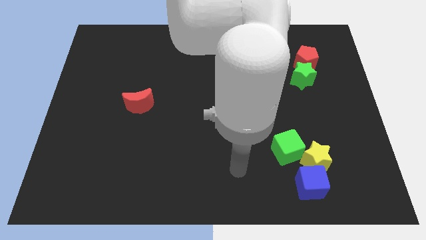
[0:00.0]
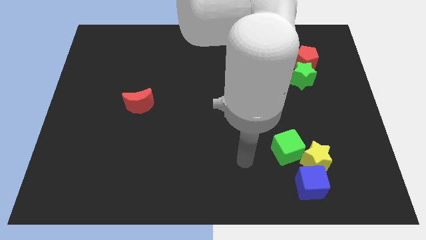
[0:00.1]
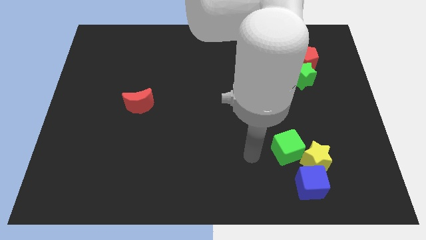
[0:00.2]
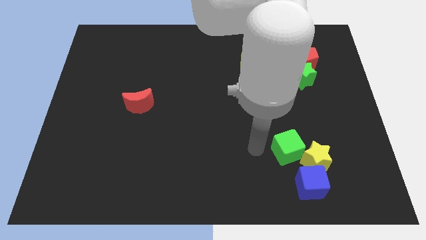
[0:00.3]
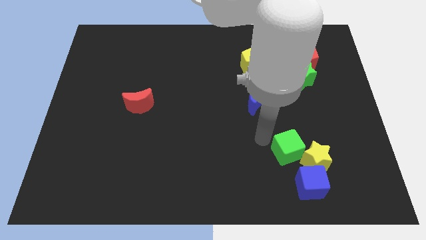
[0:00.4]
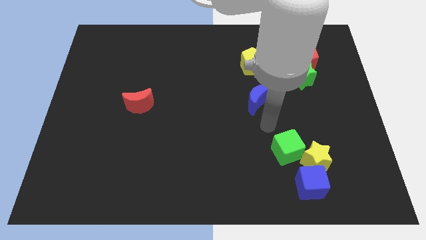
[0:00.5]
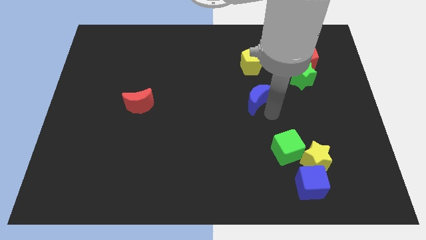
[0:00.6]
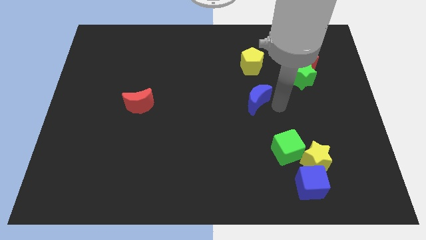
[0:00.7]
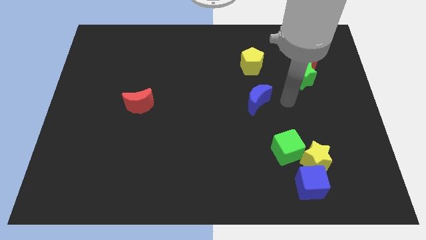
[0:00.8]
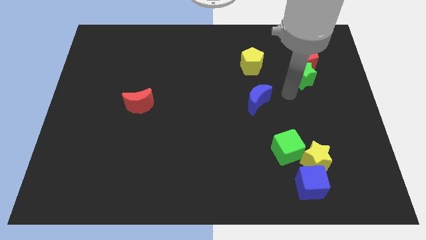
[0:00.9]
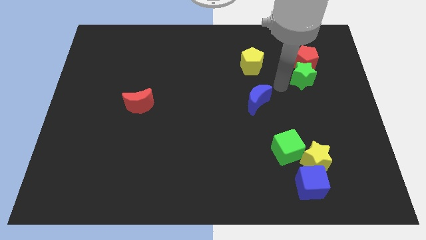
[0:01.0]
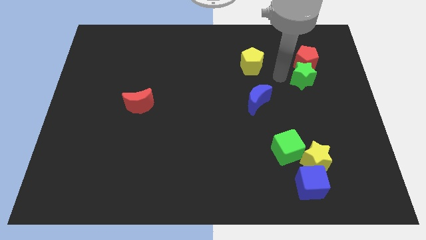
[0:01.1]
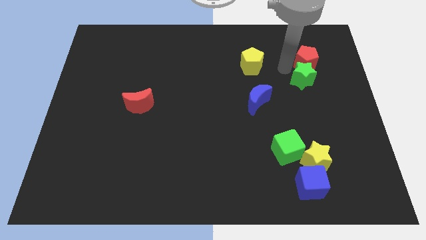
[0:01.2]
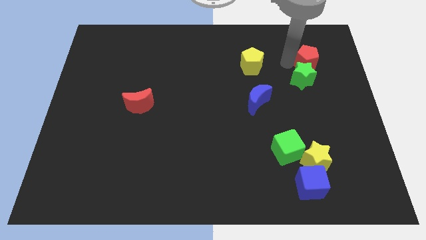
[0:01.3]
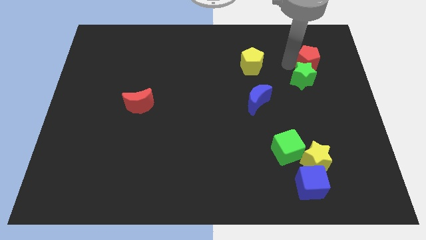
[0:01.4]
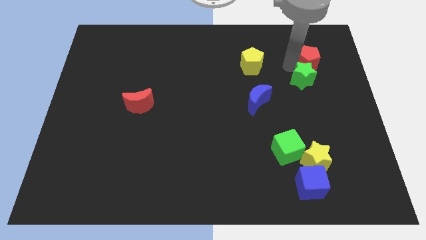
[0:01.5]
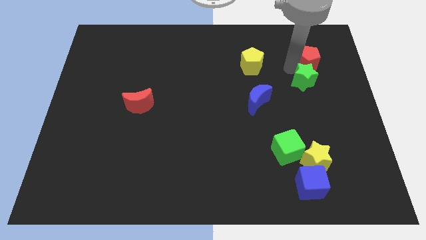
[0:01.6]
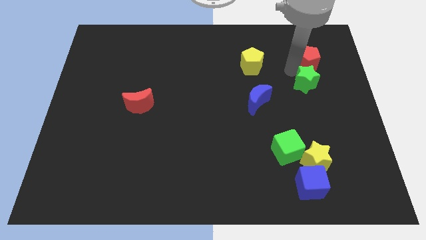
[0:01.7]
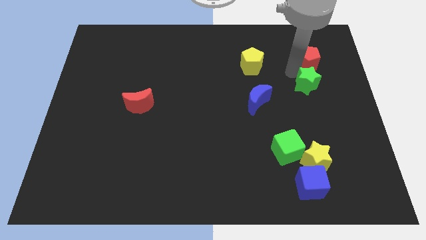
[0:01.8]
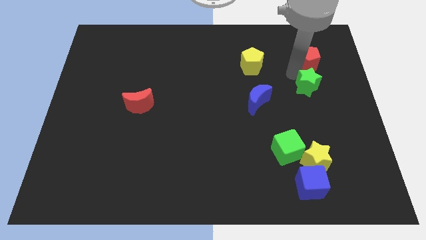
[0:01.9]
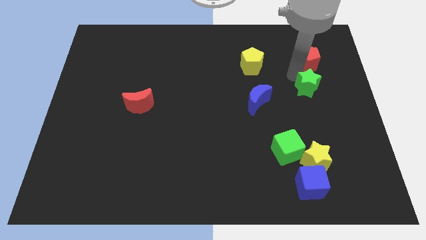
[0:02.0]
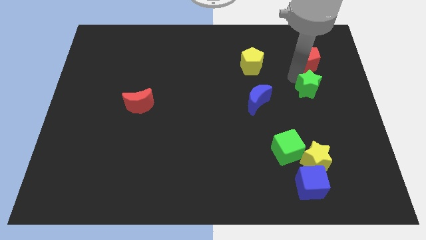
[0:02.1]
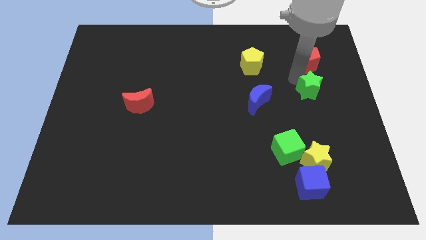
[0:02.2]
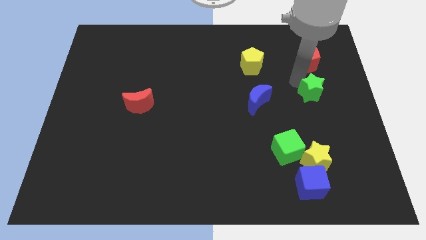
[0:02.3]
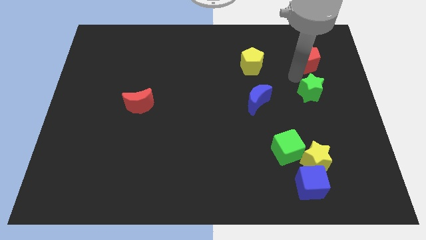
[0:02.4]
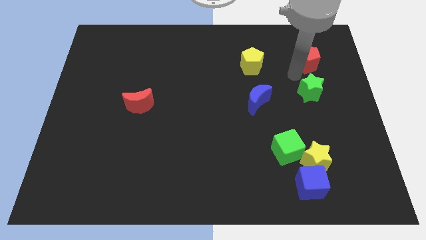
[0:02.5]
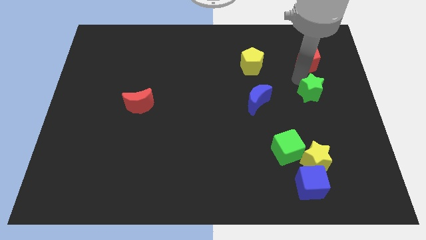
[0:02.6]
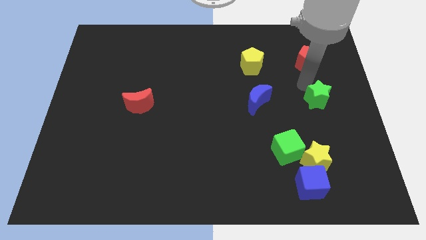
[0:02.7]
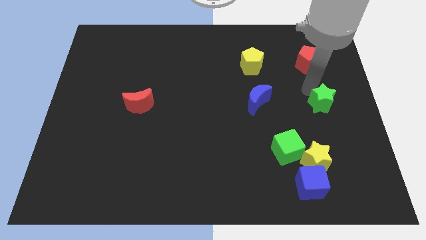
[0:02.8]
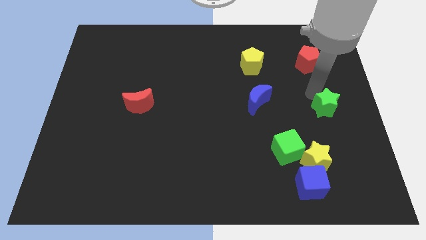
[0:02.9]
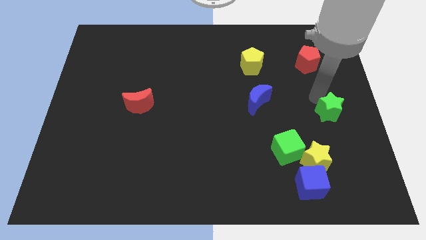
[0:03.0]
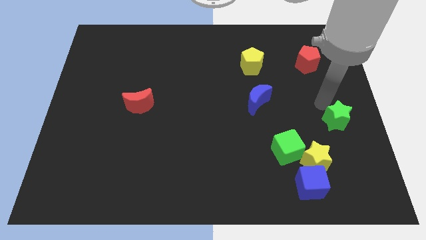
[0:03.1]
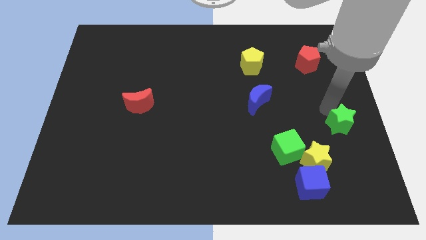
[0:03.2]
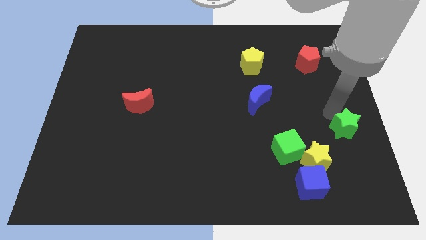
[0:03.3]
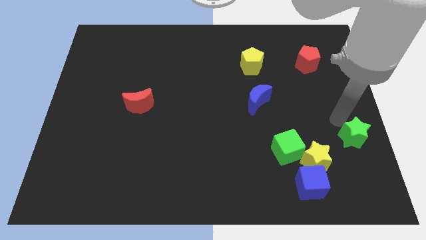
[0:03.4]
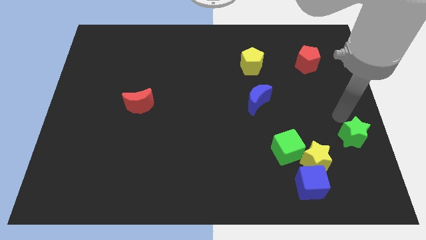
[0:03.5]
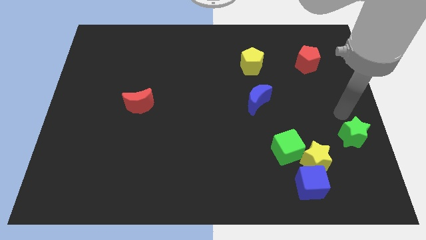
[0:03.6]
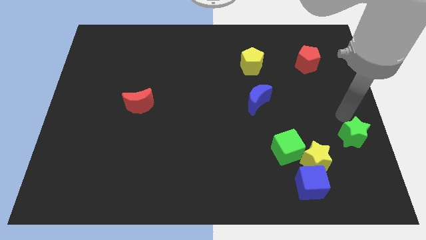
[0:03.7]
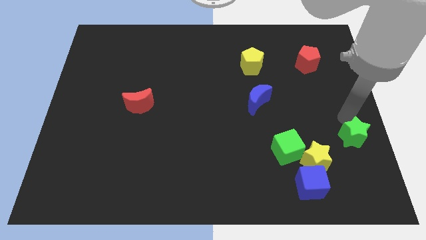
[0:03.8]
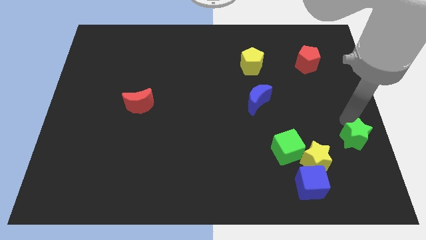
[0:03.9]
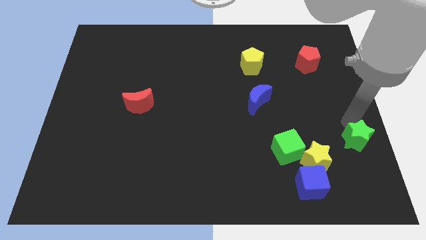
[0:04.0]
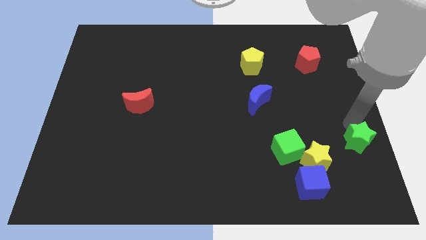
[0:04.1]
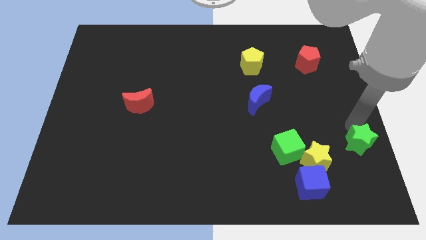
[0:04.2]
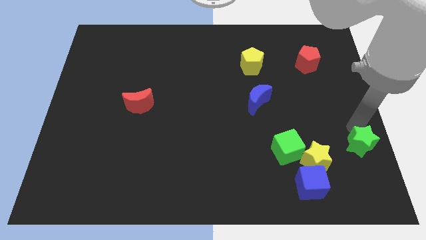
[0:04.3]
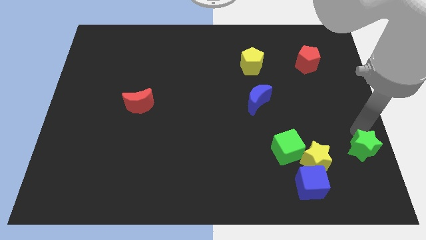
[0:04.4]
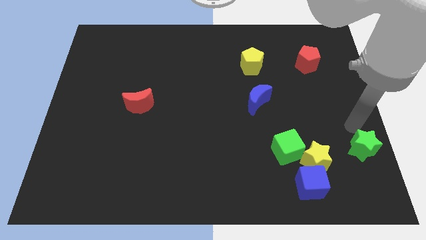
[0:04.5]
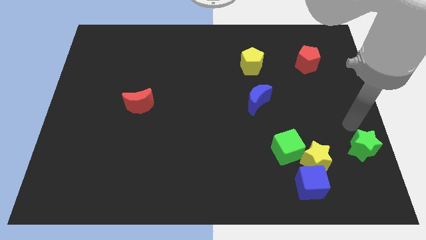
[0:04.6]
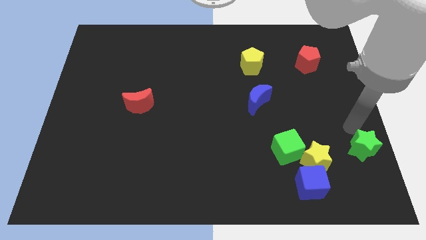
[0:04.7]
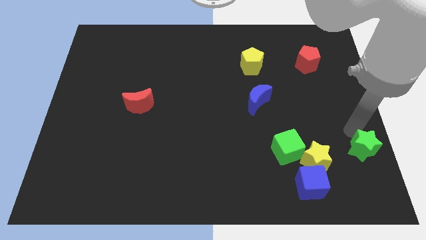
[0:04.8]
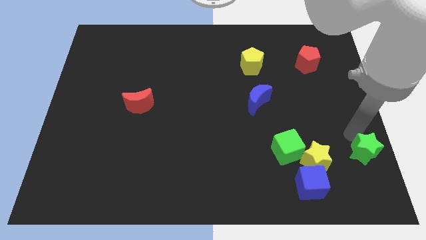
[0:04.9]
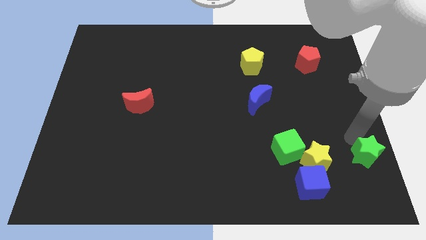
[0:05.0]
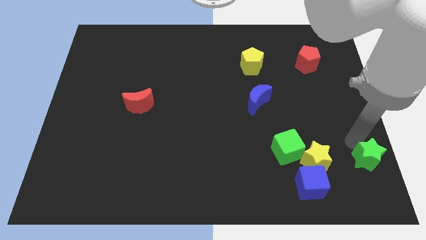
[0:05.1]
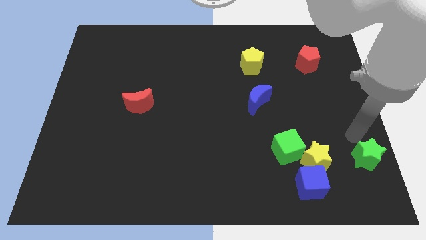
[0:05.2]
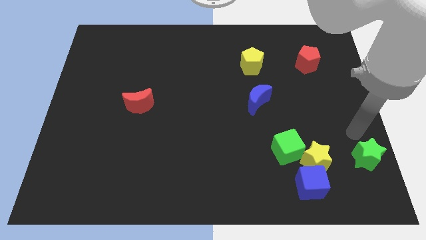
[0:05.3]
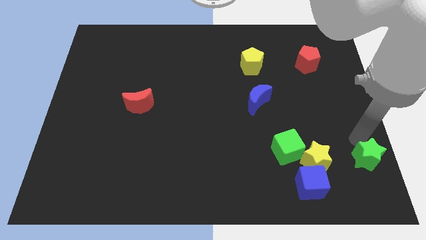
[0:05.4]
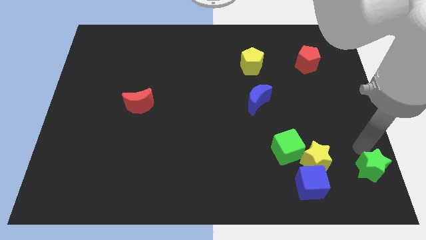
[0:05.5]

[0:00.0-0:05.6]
put the green star to the bottom right of the board
